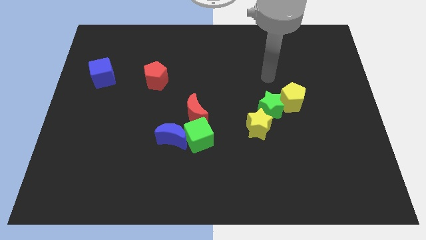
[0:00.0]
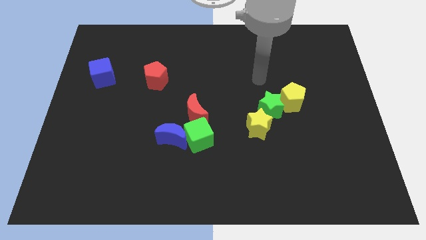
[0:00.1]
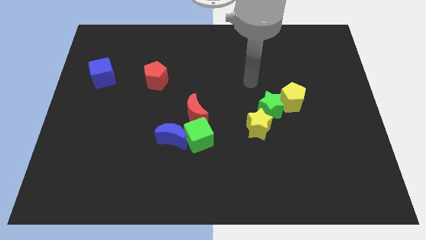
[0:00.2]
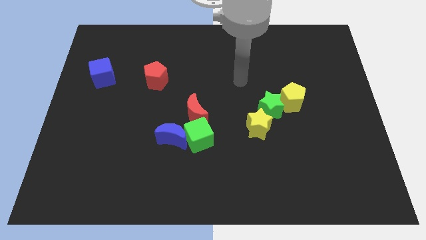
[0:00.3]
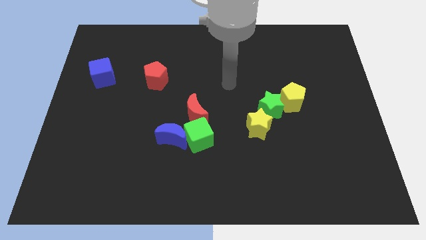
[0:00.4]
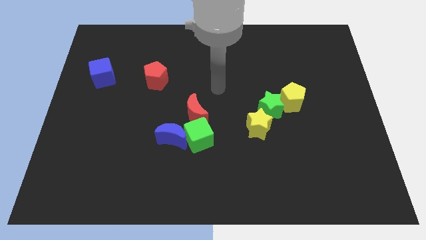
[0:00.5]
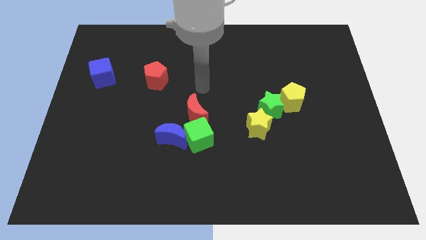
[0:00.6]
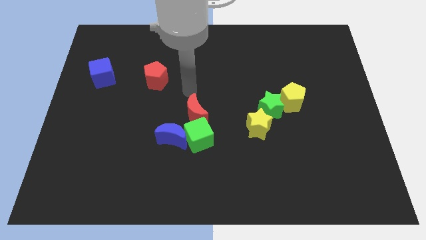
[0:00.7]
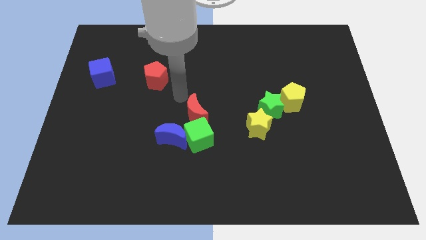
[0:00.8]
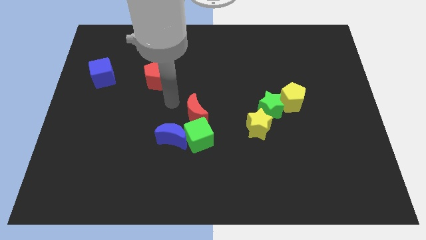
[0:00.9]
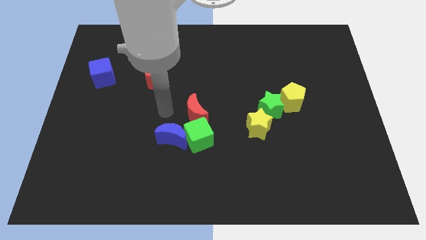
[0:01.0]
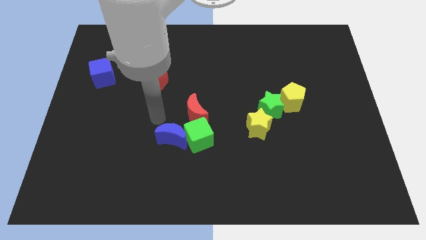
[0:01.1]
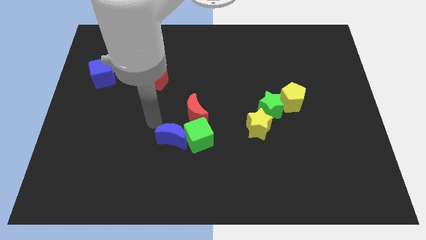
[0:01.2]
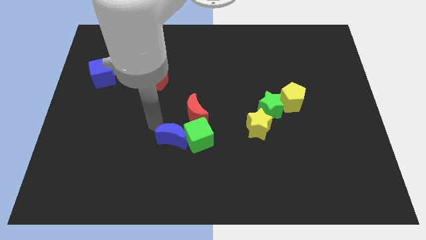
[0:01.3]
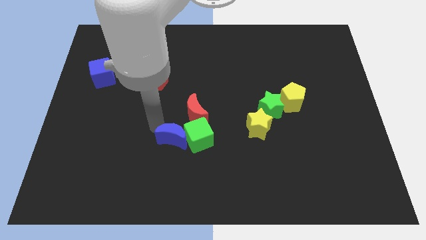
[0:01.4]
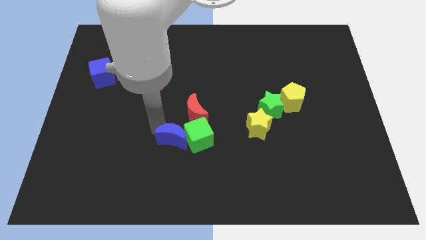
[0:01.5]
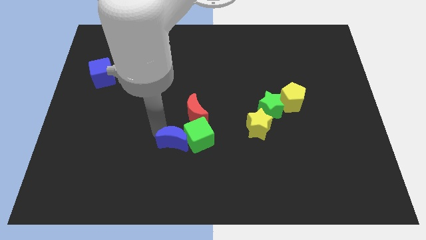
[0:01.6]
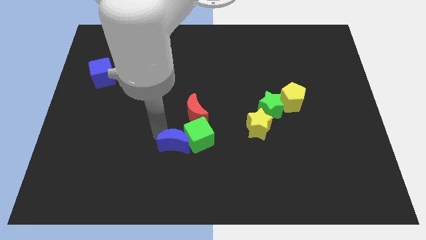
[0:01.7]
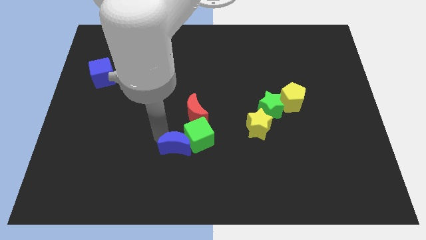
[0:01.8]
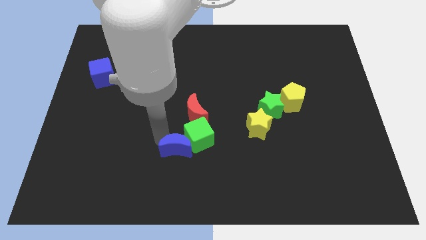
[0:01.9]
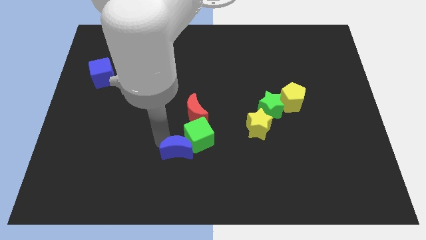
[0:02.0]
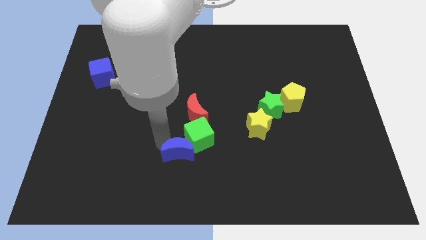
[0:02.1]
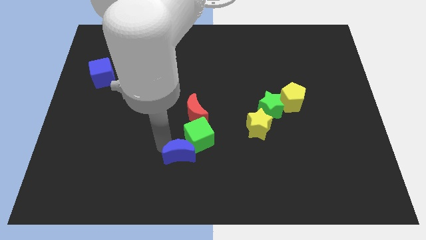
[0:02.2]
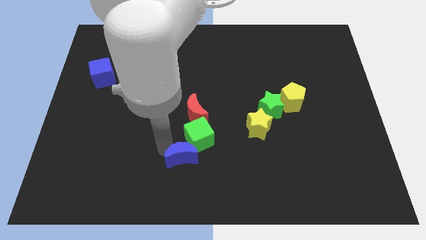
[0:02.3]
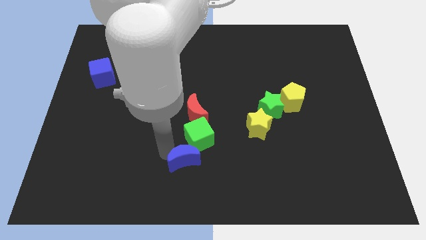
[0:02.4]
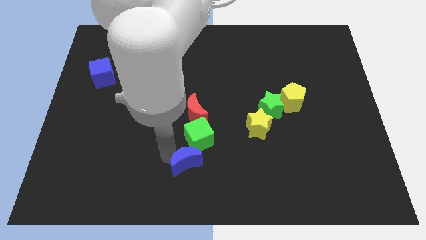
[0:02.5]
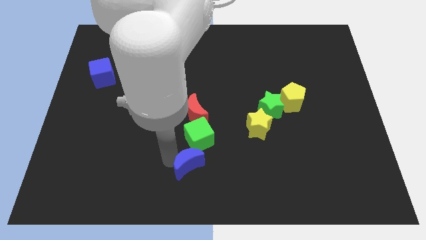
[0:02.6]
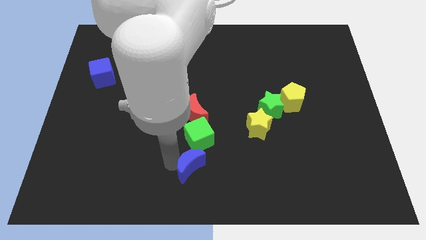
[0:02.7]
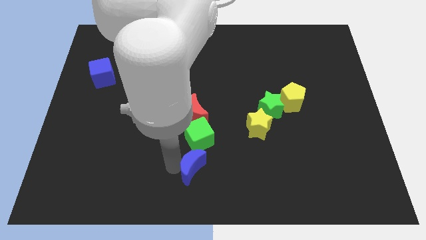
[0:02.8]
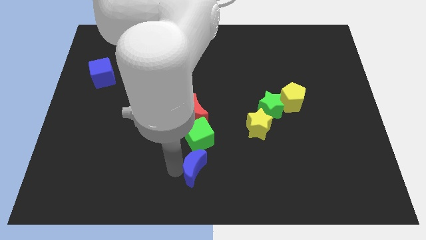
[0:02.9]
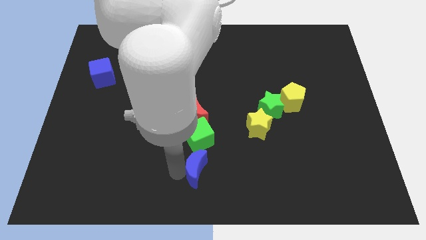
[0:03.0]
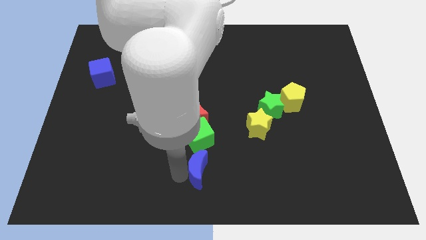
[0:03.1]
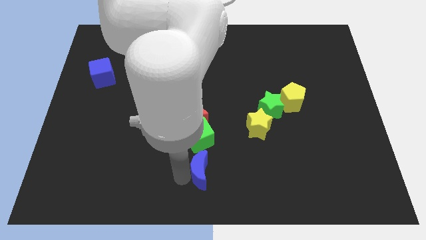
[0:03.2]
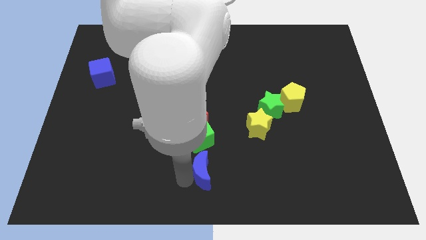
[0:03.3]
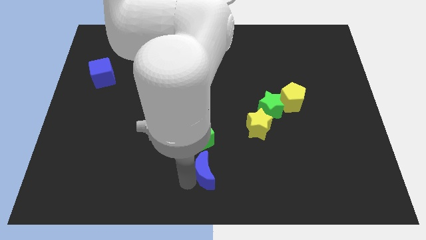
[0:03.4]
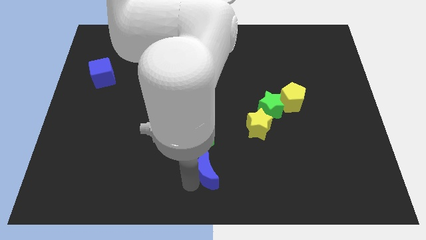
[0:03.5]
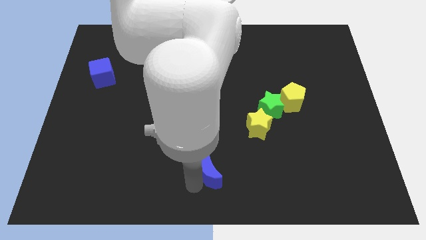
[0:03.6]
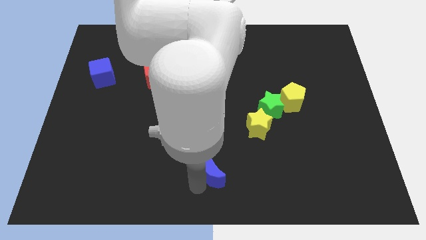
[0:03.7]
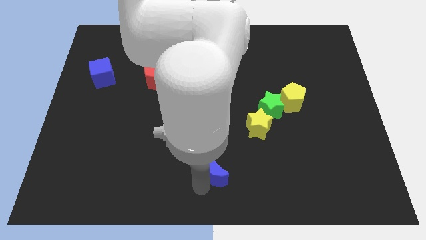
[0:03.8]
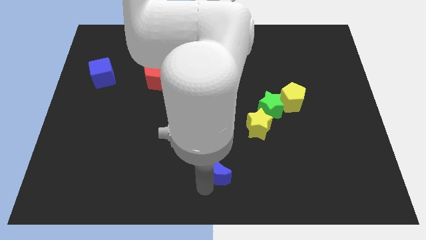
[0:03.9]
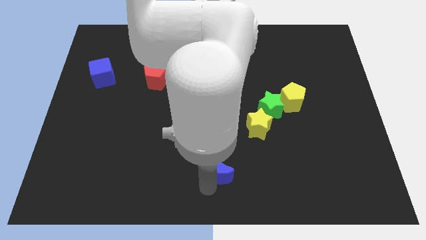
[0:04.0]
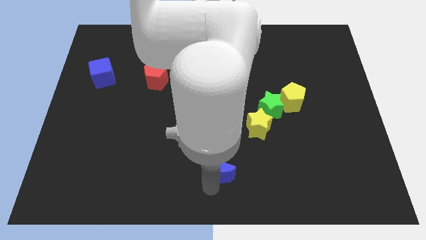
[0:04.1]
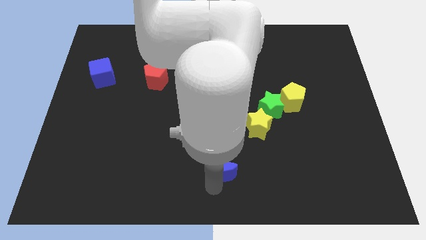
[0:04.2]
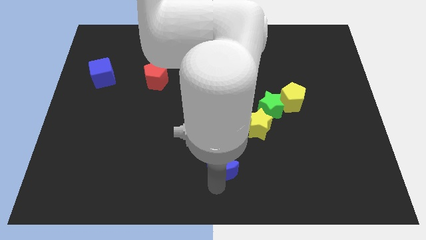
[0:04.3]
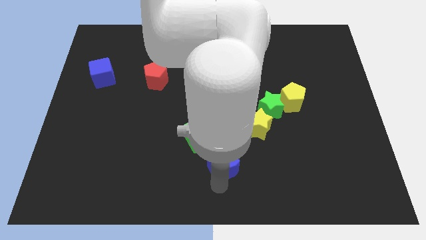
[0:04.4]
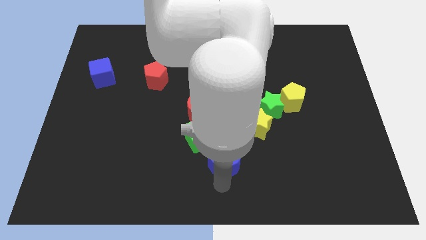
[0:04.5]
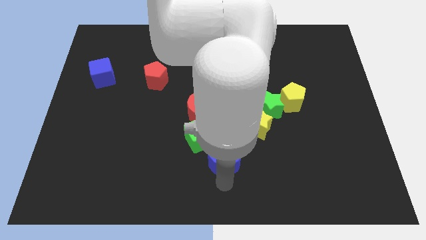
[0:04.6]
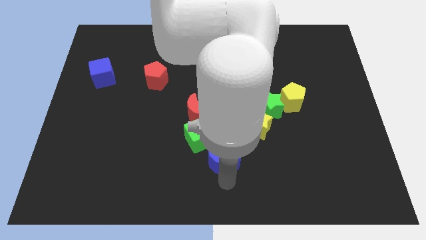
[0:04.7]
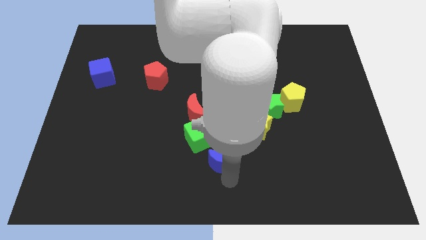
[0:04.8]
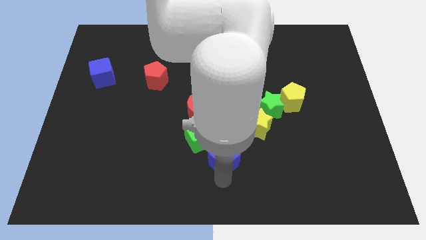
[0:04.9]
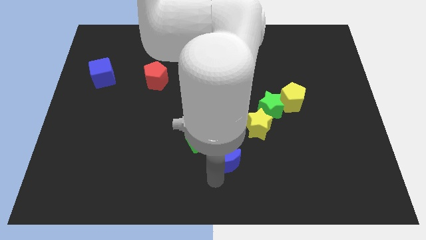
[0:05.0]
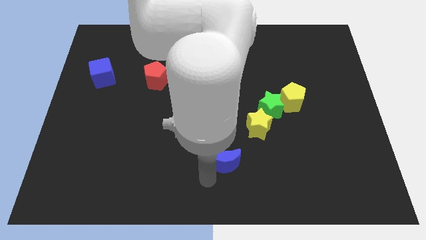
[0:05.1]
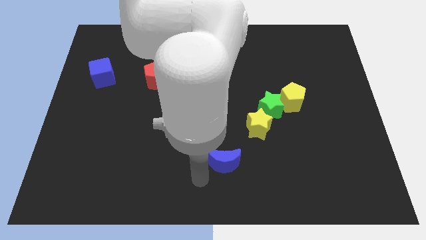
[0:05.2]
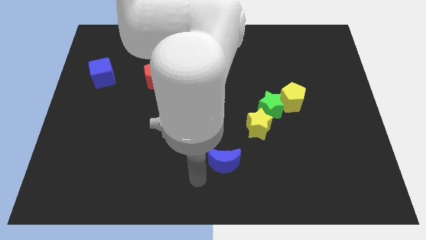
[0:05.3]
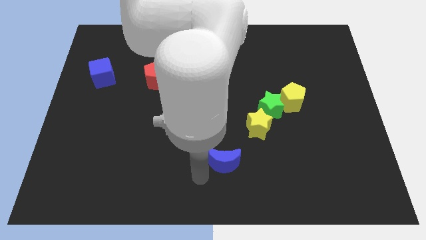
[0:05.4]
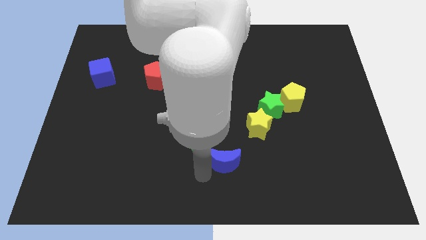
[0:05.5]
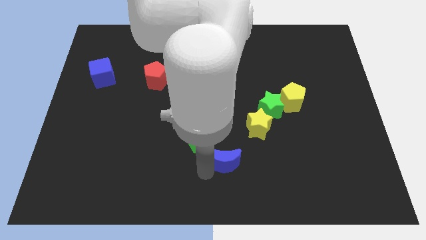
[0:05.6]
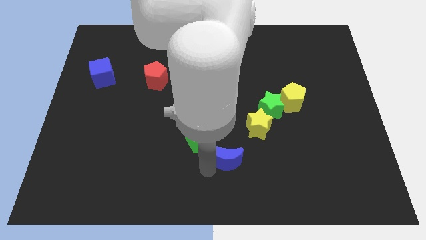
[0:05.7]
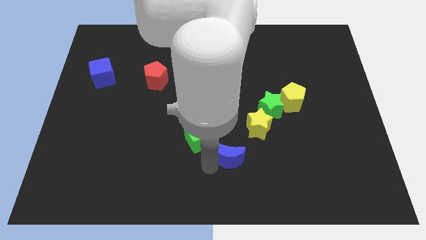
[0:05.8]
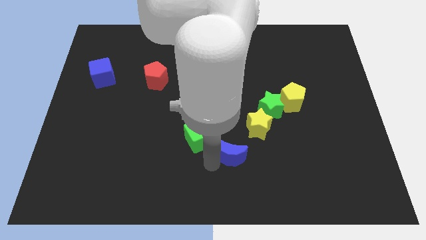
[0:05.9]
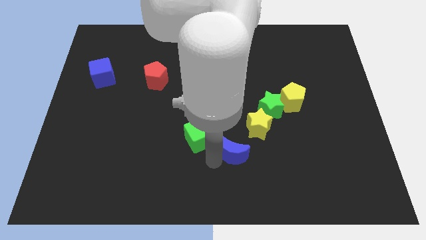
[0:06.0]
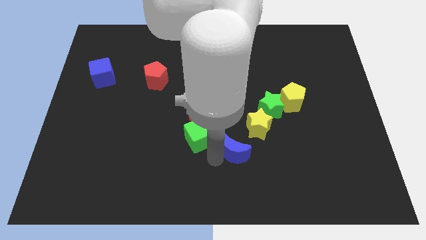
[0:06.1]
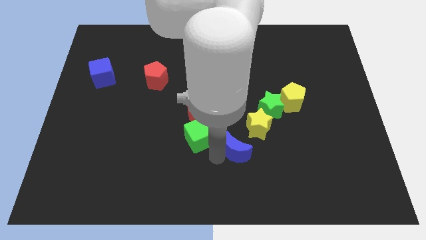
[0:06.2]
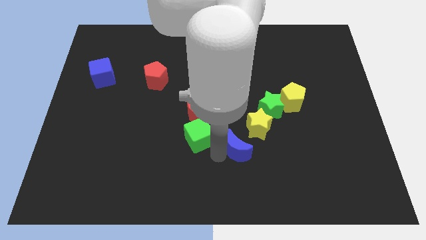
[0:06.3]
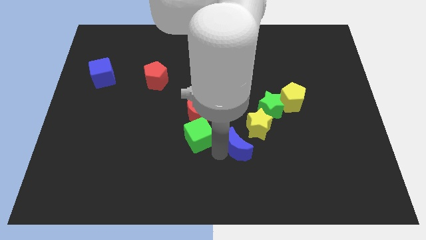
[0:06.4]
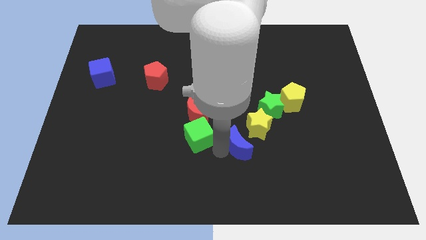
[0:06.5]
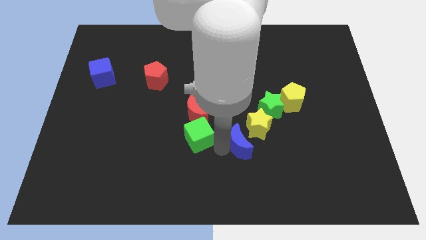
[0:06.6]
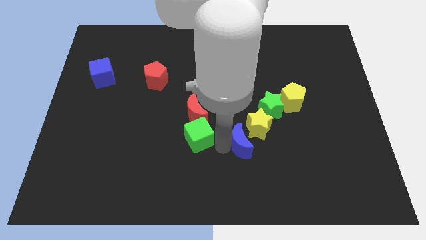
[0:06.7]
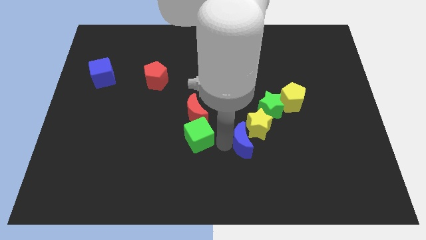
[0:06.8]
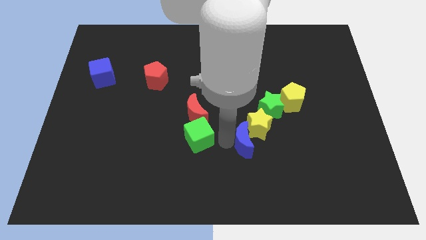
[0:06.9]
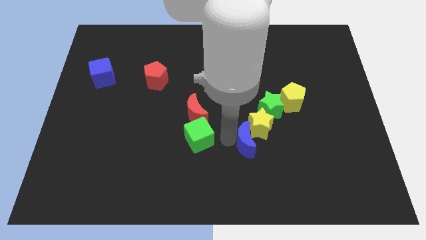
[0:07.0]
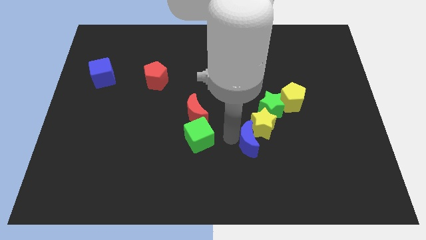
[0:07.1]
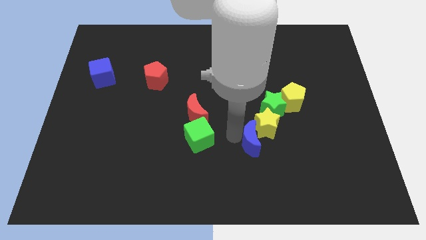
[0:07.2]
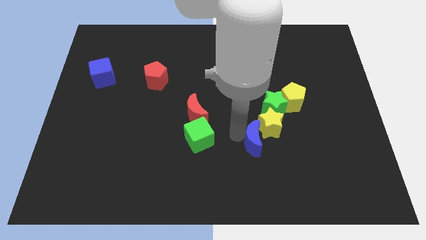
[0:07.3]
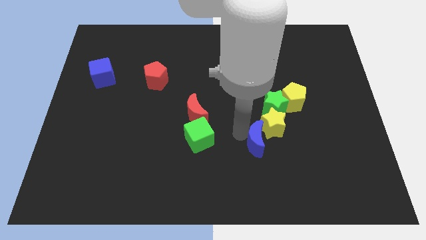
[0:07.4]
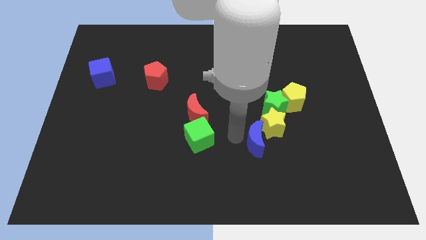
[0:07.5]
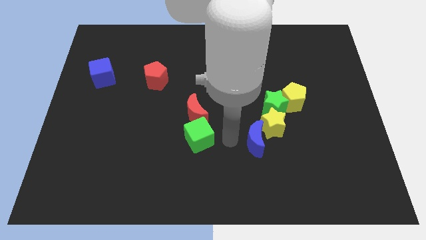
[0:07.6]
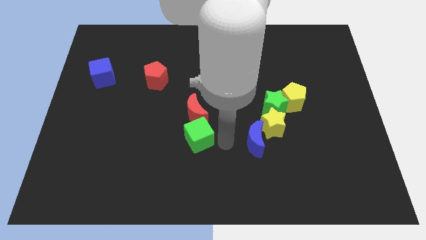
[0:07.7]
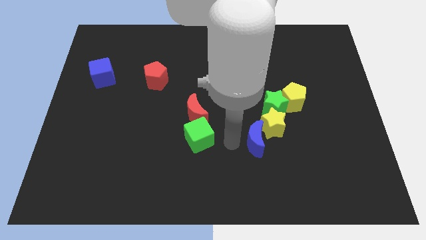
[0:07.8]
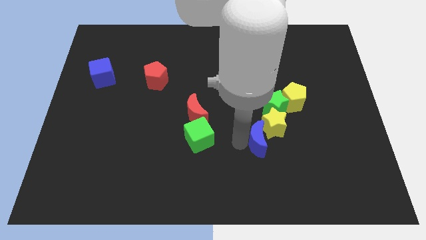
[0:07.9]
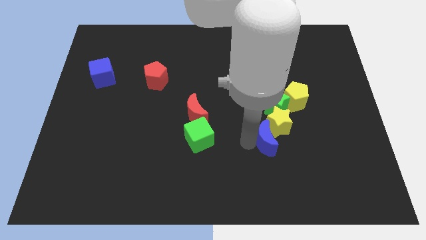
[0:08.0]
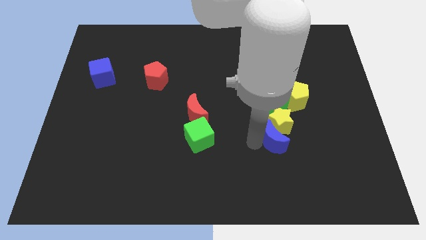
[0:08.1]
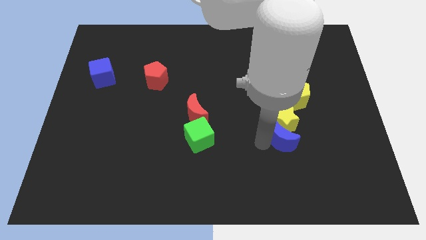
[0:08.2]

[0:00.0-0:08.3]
put the blue moon to the bottom side of the yellow pentagon
